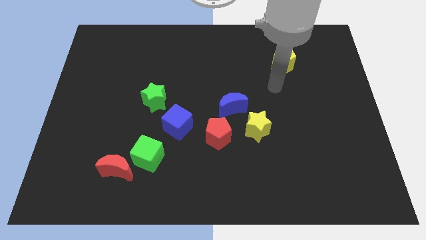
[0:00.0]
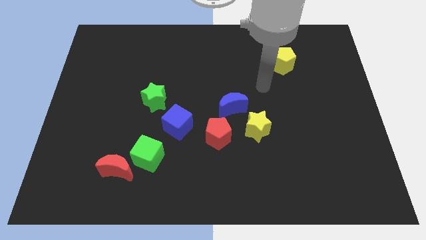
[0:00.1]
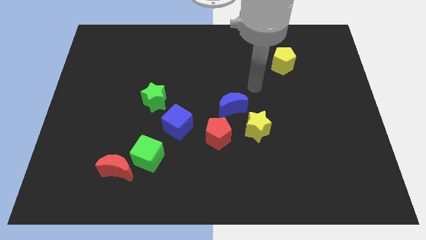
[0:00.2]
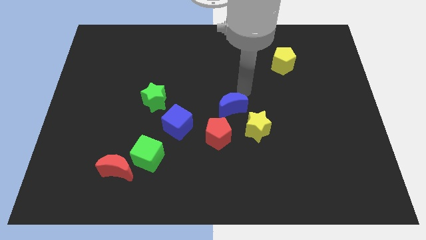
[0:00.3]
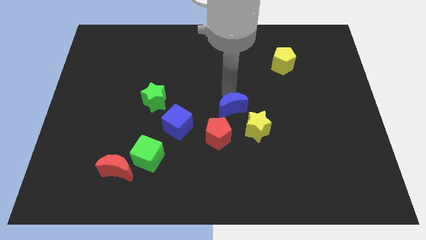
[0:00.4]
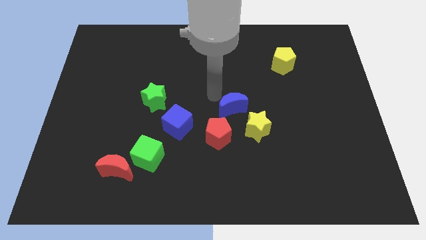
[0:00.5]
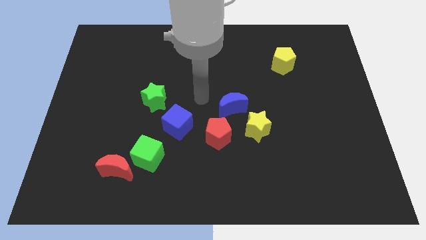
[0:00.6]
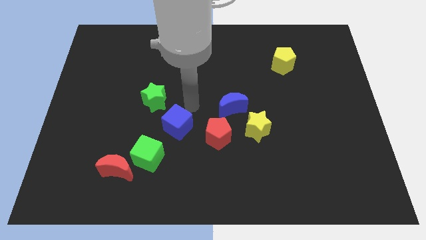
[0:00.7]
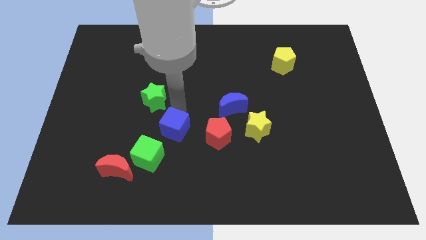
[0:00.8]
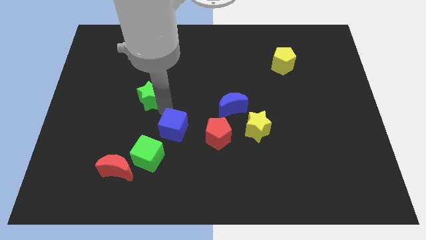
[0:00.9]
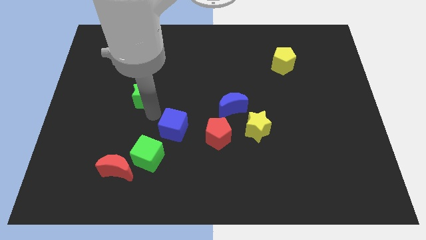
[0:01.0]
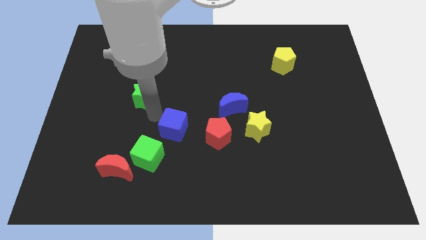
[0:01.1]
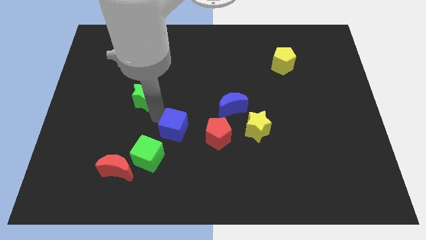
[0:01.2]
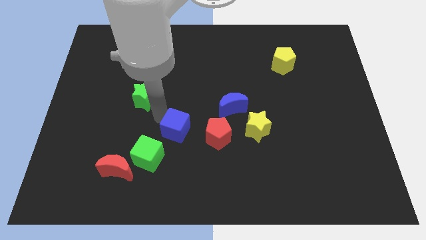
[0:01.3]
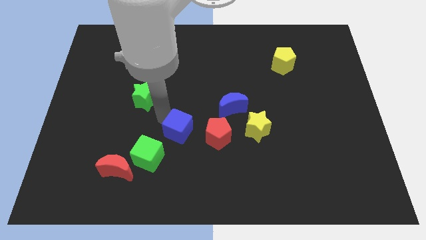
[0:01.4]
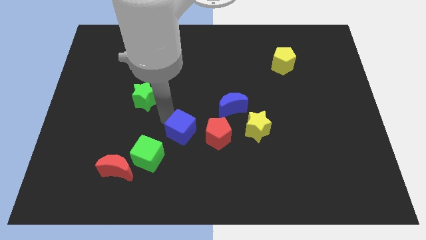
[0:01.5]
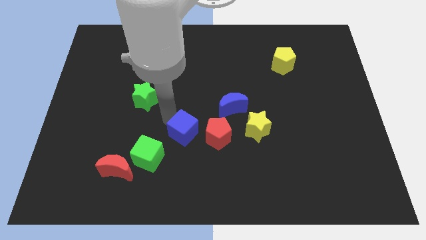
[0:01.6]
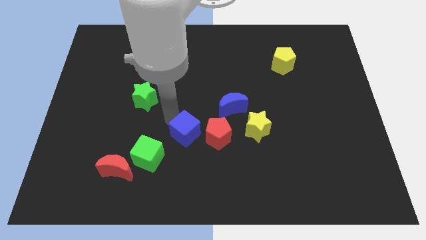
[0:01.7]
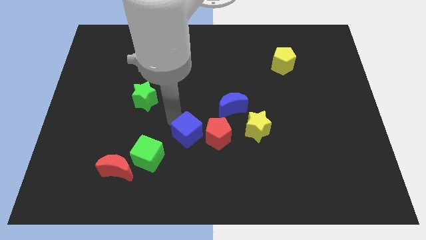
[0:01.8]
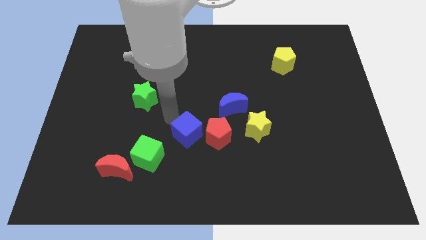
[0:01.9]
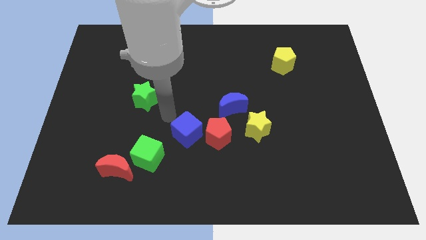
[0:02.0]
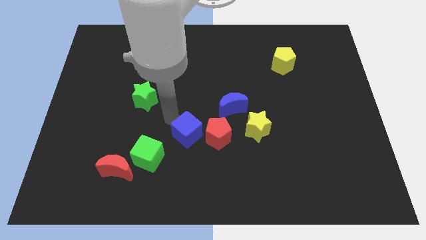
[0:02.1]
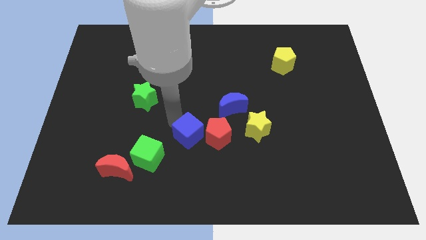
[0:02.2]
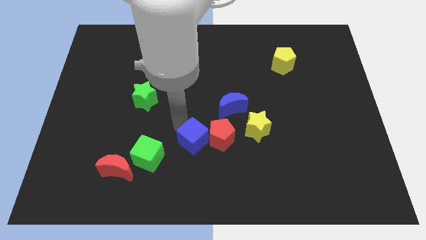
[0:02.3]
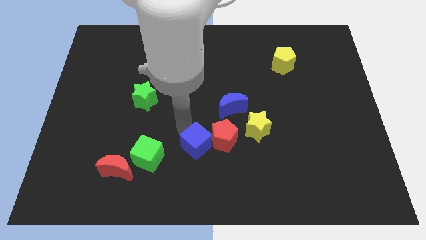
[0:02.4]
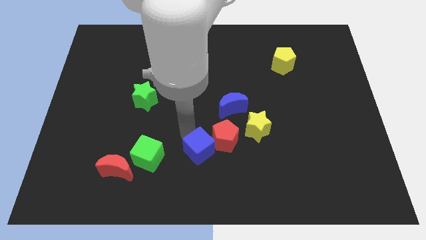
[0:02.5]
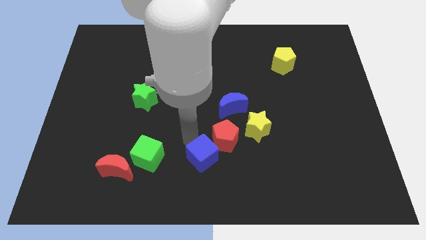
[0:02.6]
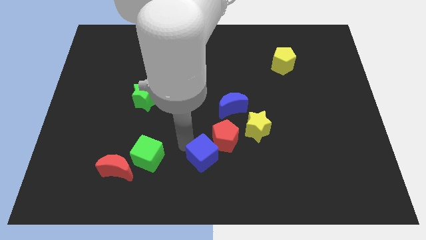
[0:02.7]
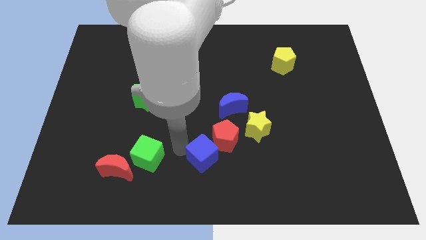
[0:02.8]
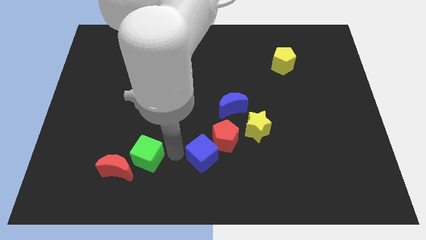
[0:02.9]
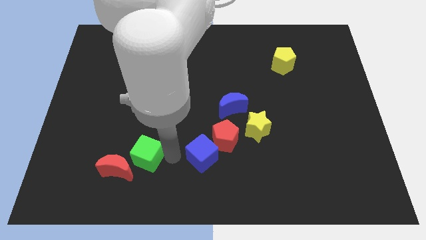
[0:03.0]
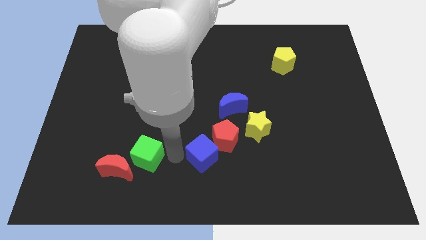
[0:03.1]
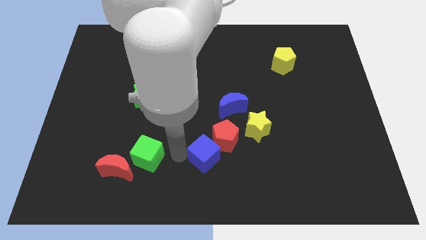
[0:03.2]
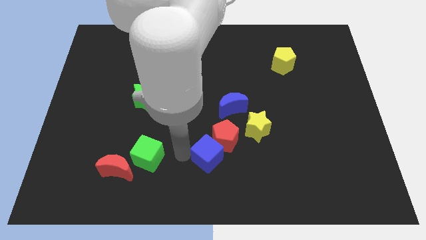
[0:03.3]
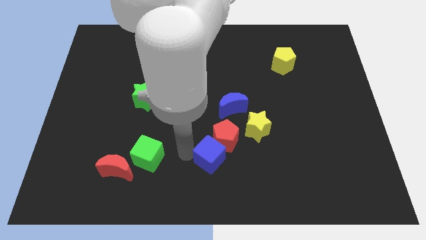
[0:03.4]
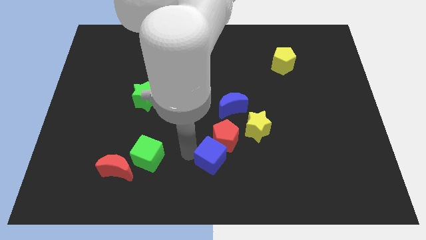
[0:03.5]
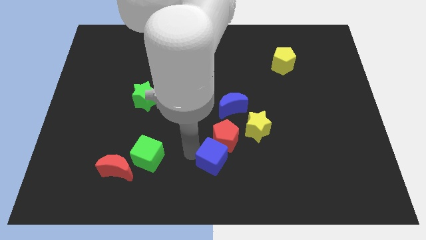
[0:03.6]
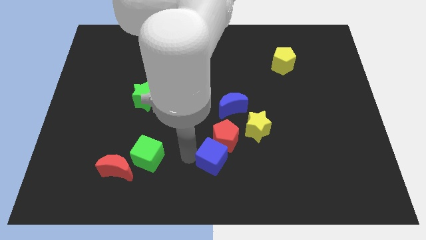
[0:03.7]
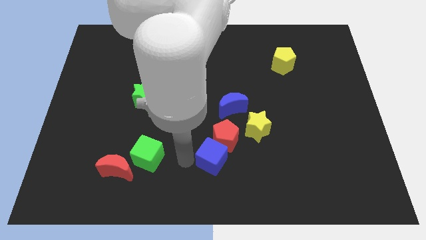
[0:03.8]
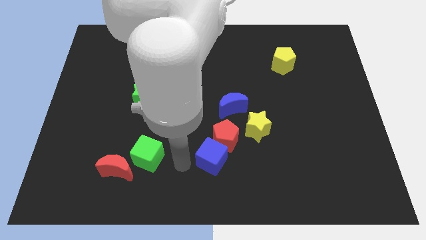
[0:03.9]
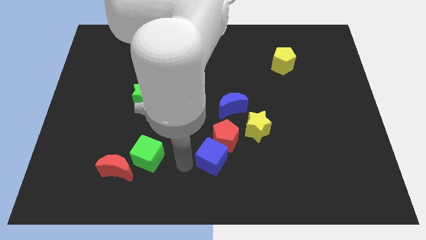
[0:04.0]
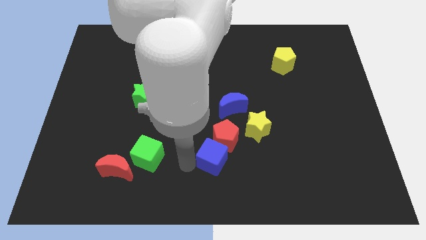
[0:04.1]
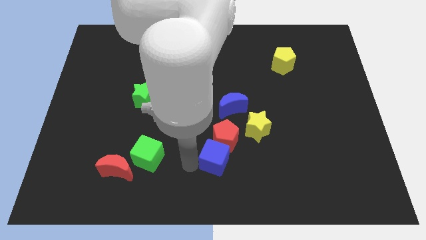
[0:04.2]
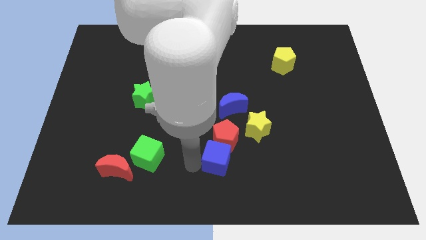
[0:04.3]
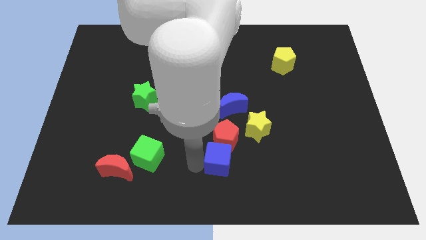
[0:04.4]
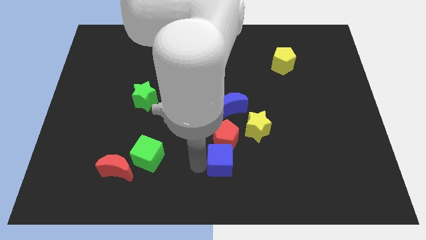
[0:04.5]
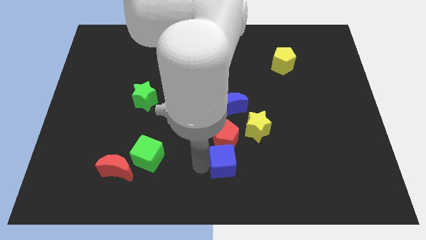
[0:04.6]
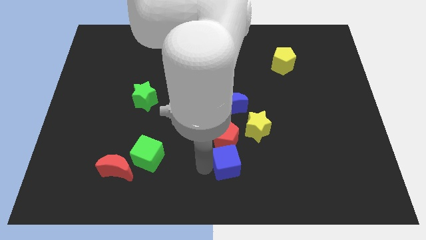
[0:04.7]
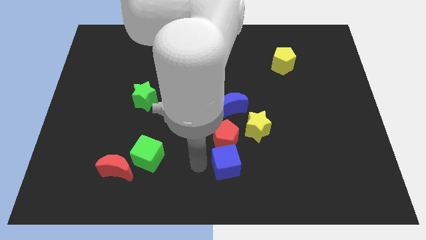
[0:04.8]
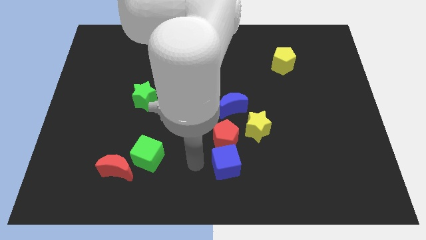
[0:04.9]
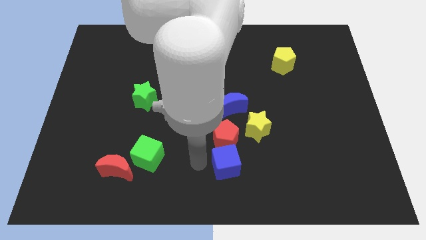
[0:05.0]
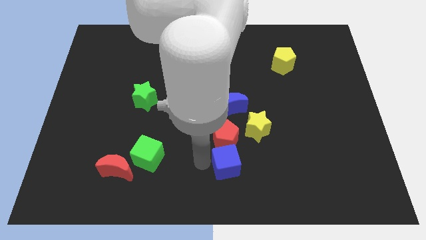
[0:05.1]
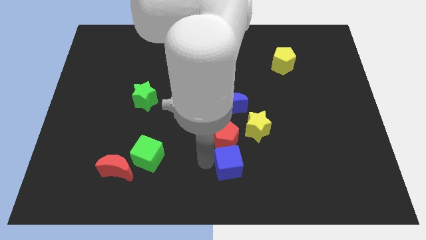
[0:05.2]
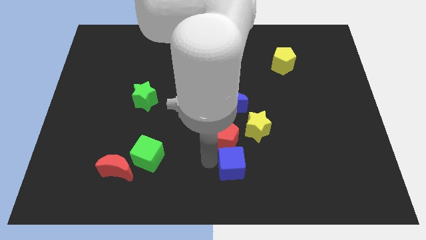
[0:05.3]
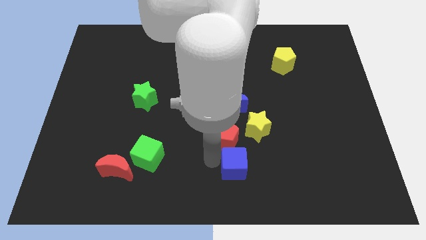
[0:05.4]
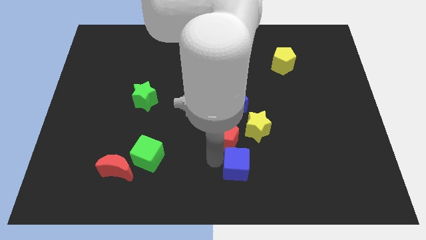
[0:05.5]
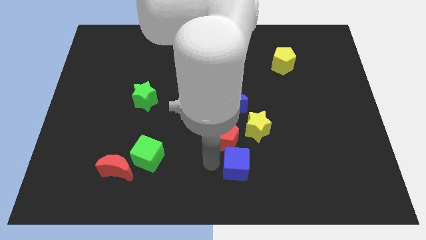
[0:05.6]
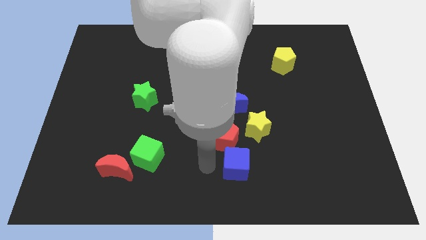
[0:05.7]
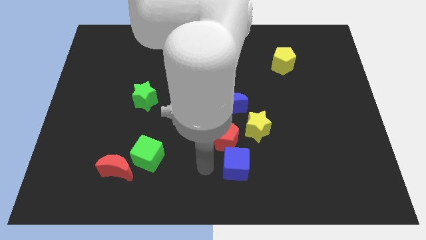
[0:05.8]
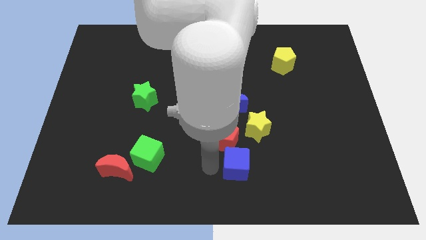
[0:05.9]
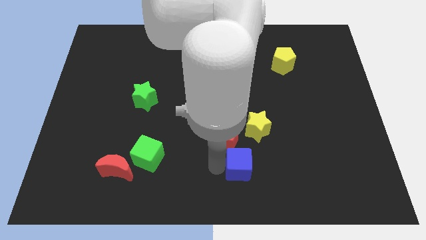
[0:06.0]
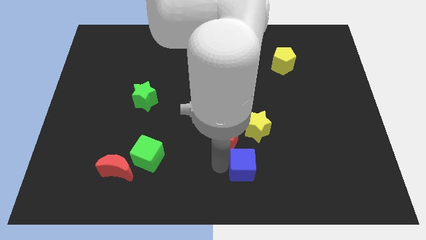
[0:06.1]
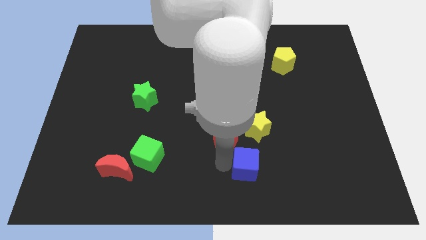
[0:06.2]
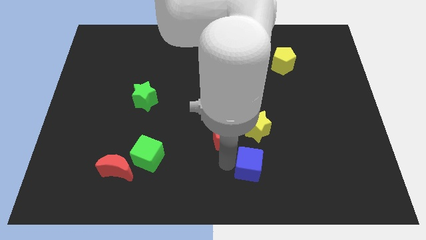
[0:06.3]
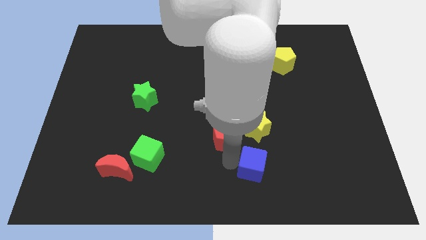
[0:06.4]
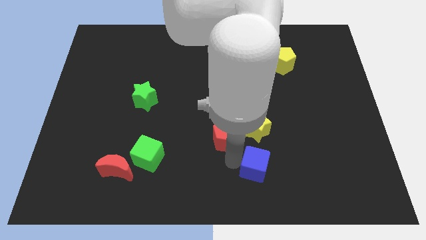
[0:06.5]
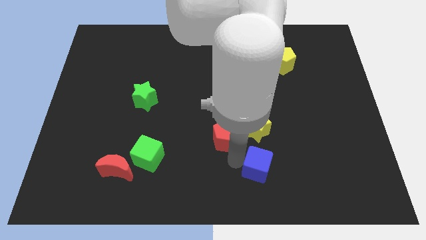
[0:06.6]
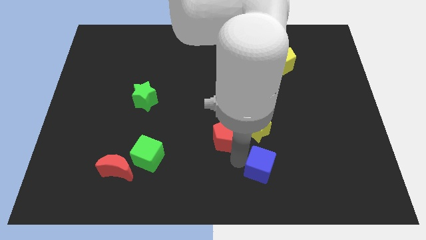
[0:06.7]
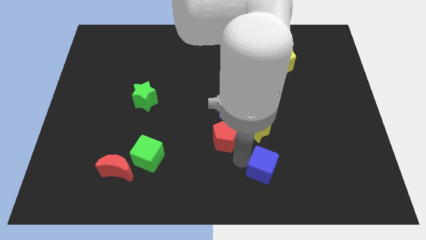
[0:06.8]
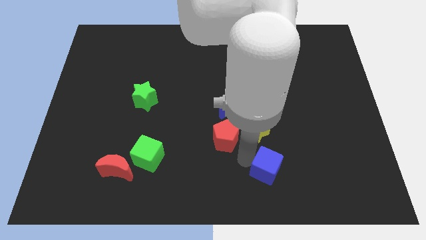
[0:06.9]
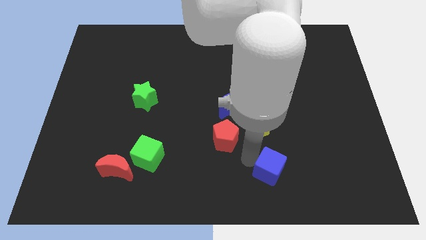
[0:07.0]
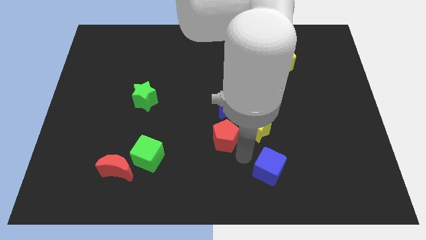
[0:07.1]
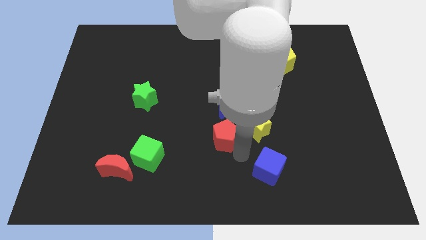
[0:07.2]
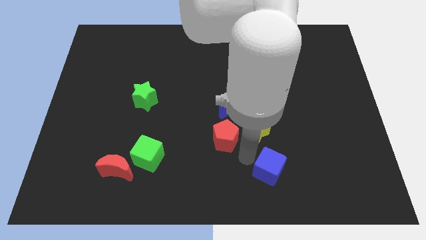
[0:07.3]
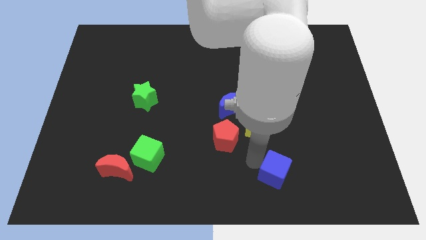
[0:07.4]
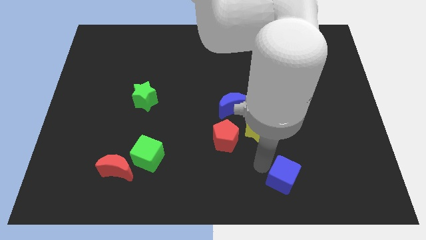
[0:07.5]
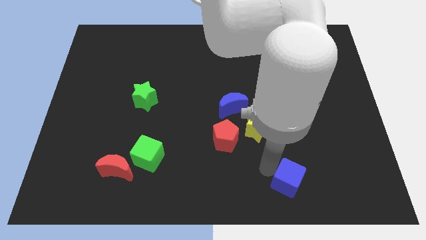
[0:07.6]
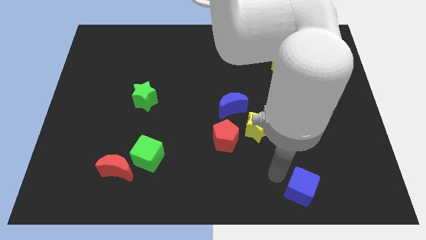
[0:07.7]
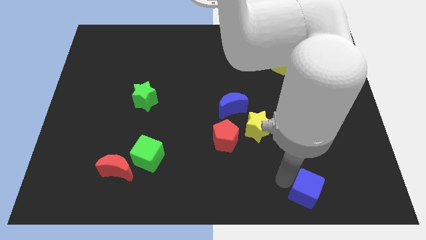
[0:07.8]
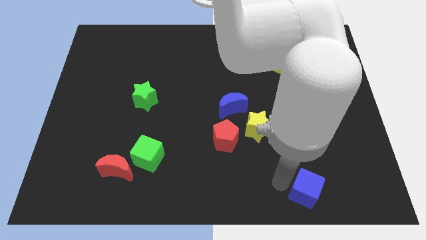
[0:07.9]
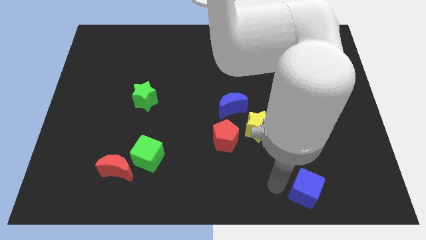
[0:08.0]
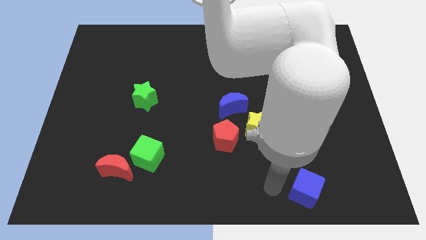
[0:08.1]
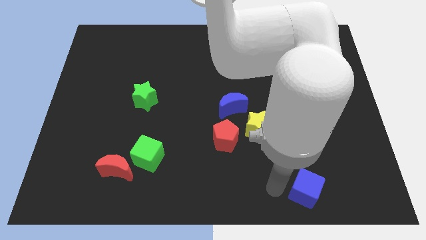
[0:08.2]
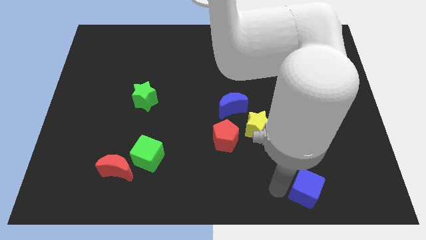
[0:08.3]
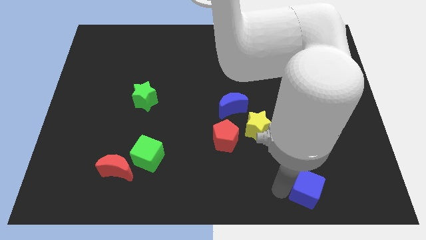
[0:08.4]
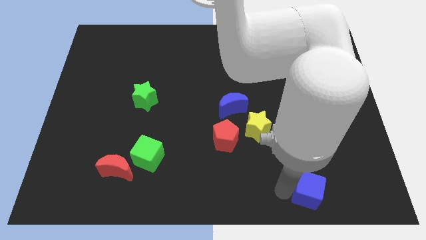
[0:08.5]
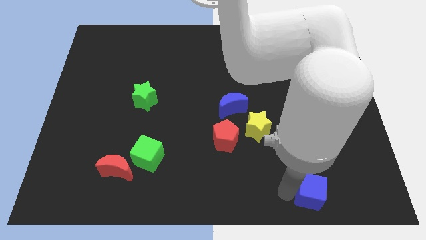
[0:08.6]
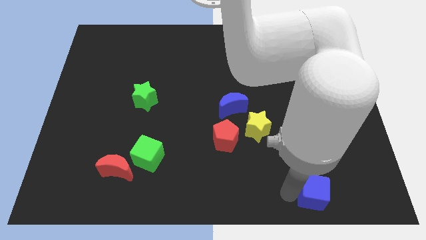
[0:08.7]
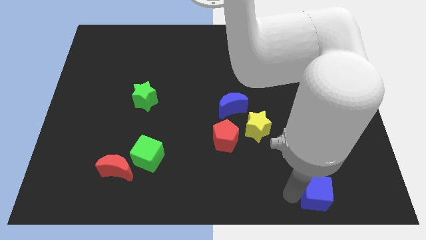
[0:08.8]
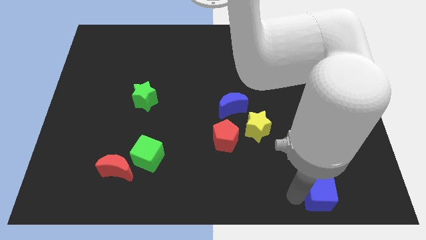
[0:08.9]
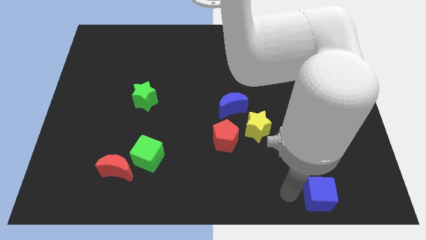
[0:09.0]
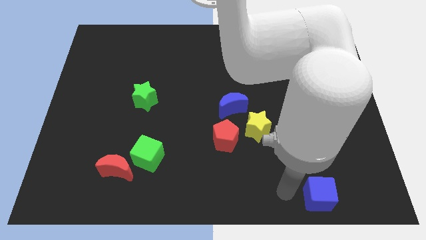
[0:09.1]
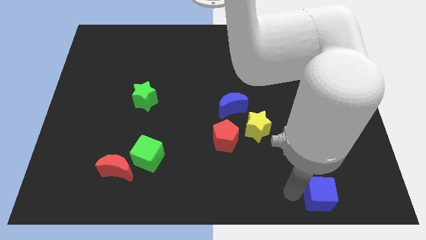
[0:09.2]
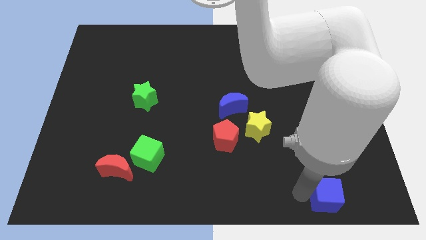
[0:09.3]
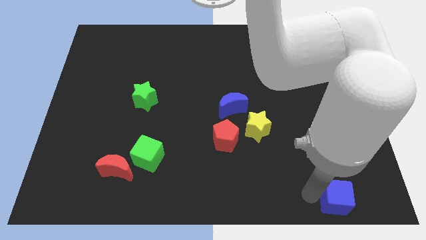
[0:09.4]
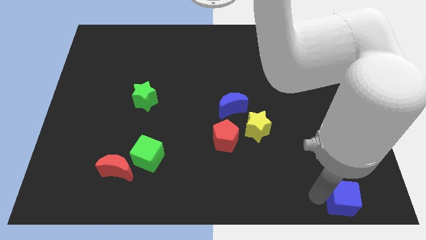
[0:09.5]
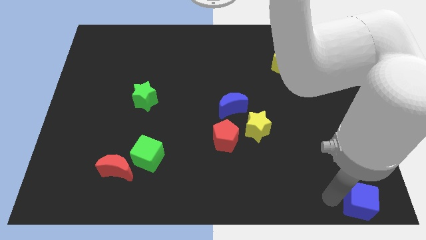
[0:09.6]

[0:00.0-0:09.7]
put the blue cube to the lower right corner
